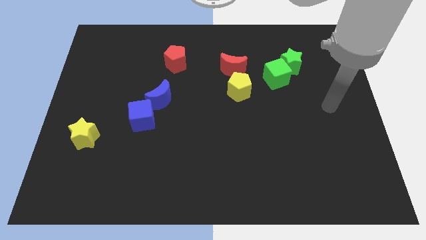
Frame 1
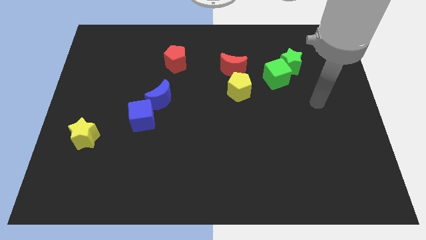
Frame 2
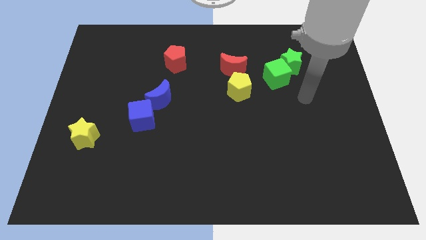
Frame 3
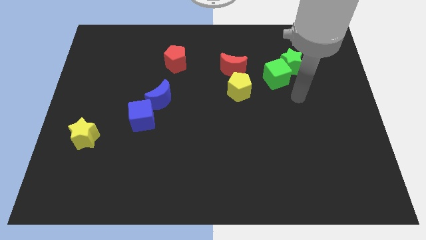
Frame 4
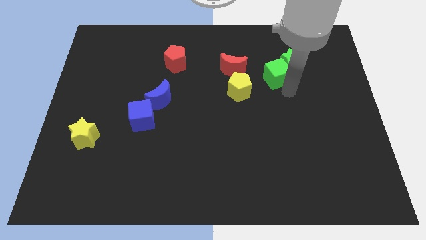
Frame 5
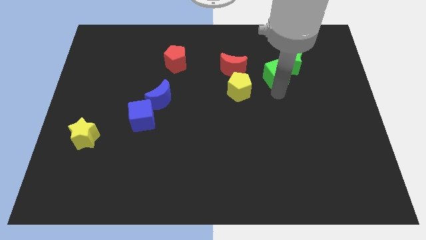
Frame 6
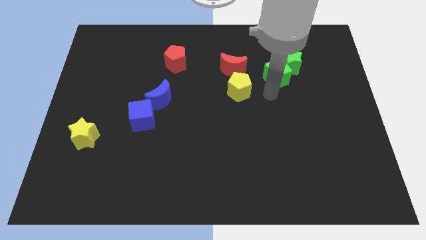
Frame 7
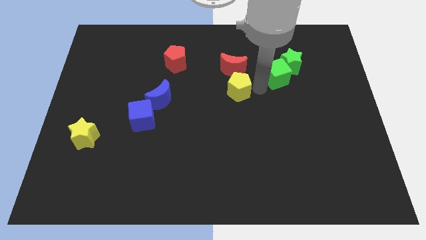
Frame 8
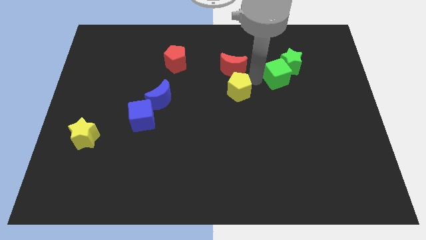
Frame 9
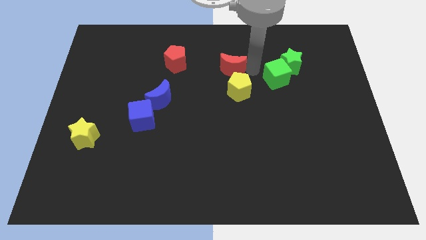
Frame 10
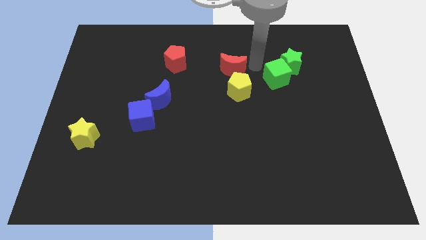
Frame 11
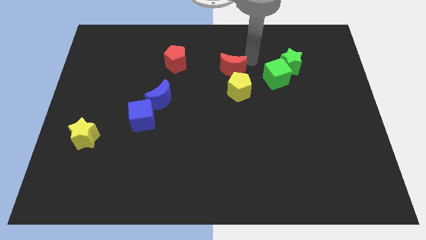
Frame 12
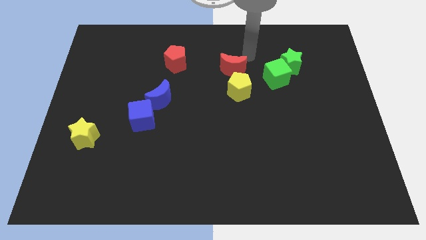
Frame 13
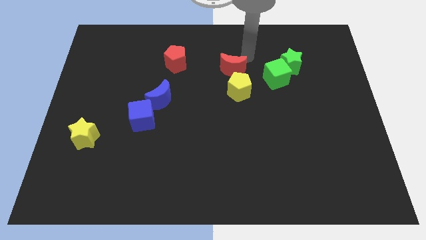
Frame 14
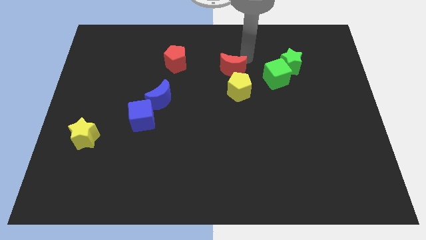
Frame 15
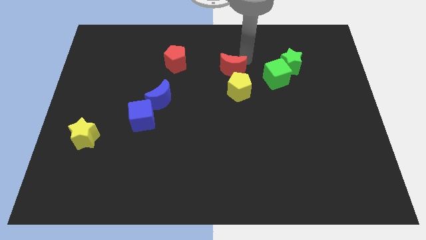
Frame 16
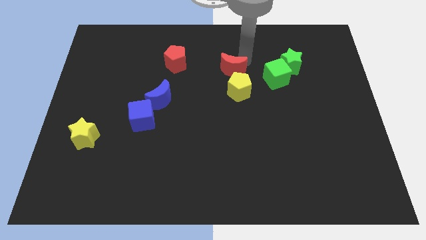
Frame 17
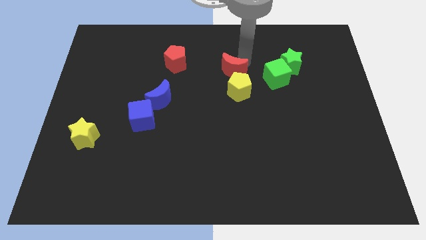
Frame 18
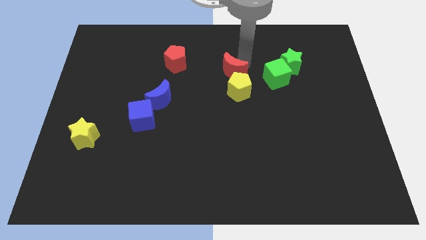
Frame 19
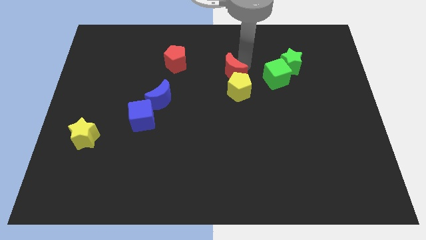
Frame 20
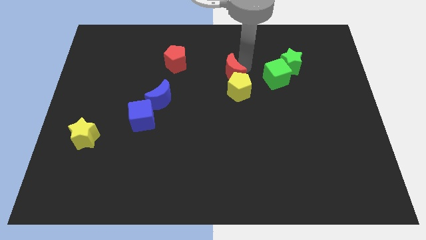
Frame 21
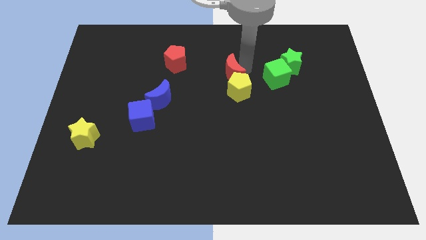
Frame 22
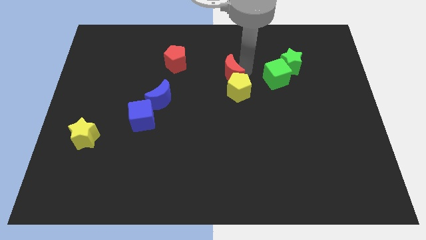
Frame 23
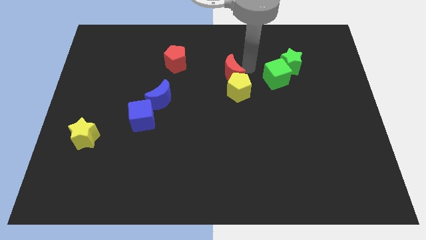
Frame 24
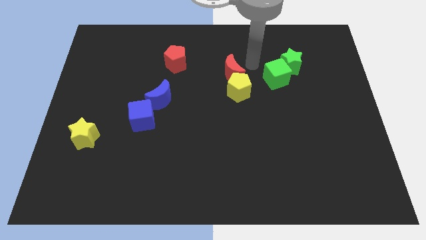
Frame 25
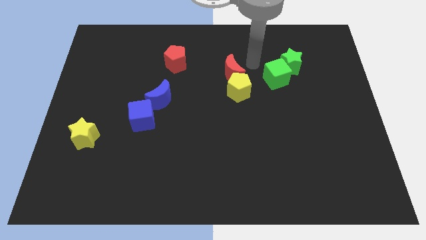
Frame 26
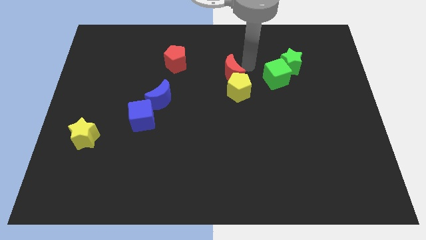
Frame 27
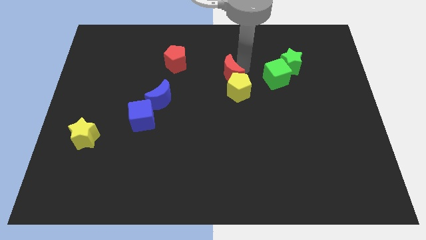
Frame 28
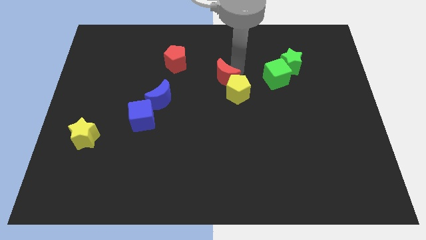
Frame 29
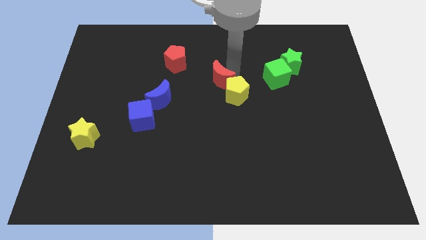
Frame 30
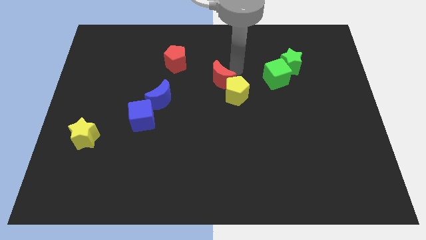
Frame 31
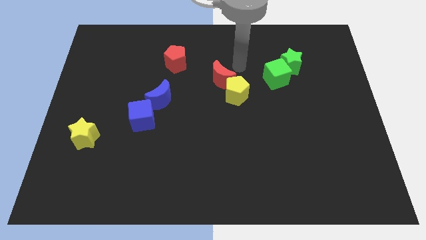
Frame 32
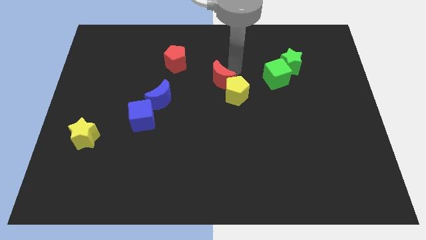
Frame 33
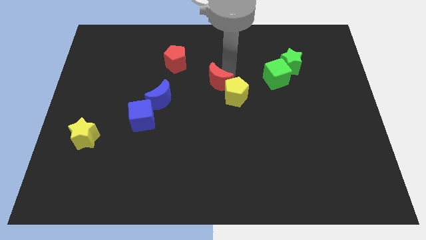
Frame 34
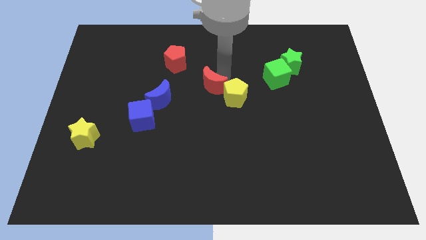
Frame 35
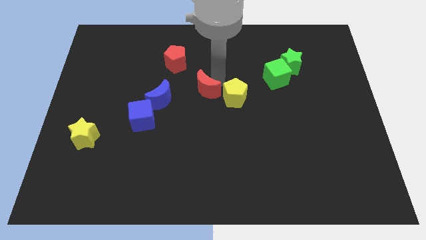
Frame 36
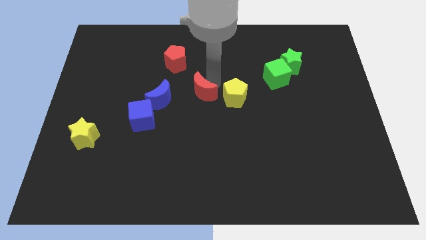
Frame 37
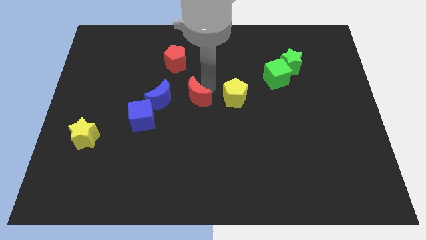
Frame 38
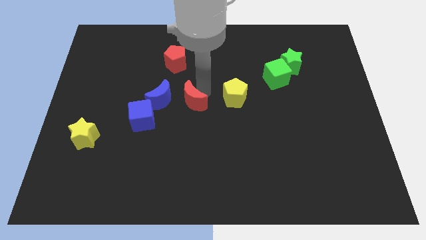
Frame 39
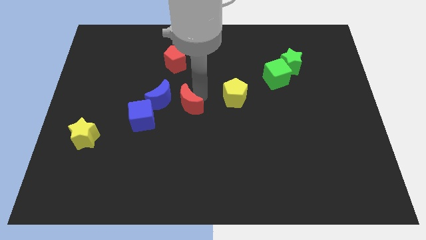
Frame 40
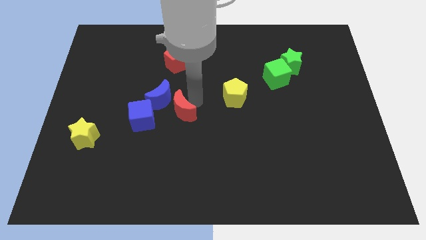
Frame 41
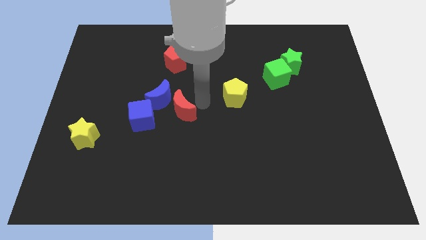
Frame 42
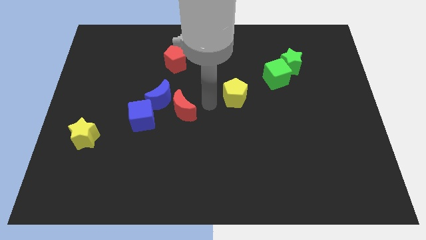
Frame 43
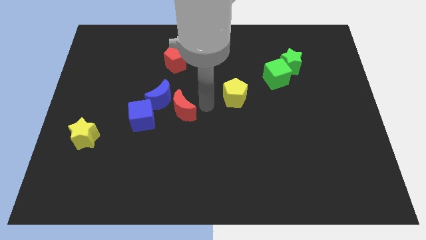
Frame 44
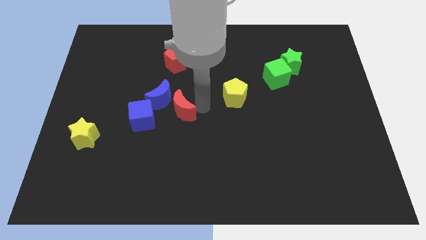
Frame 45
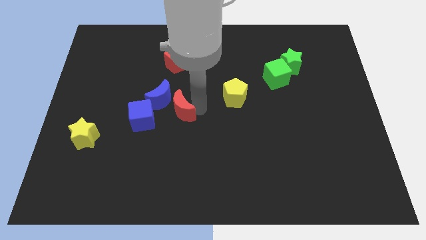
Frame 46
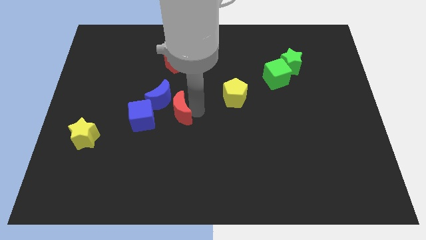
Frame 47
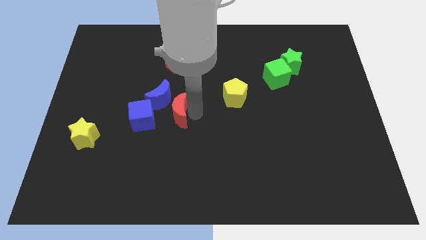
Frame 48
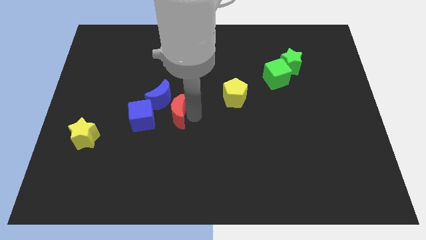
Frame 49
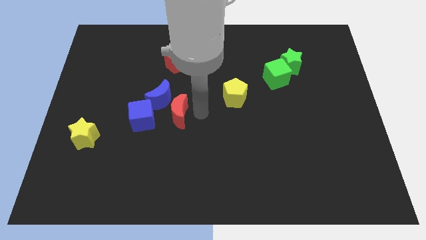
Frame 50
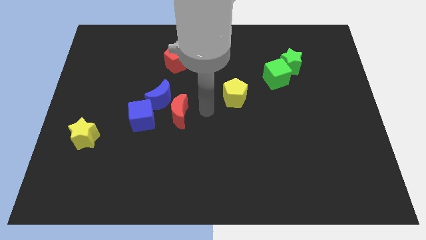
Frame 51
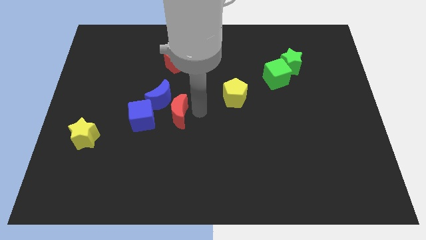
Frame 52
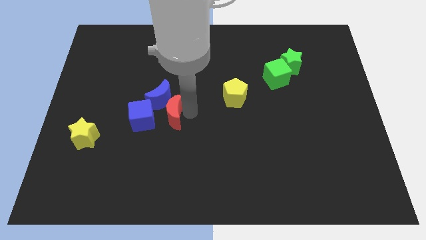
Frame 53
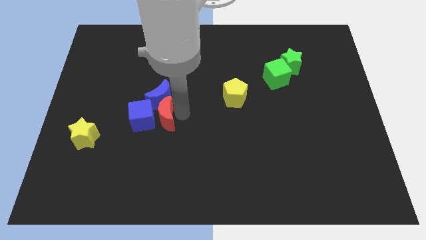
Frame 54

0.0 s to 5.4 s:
slide the red moon towards the blue cube

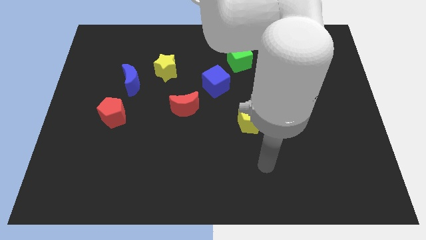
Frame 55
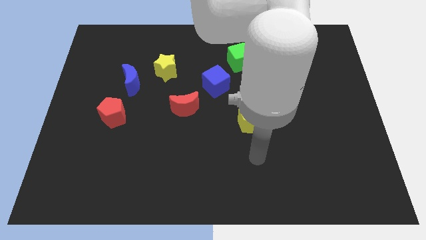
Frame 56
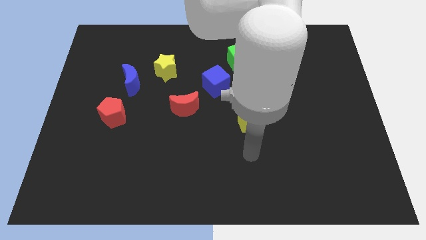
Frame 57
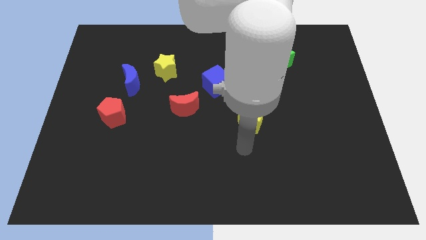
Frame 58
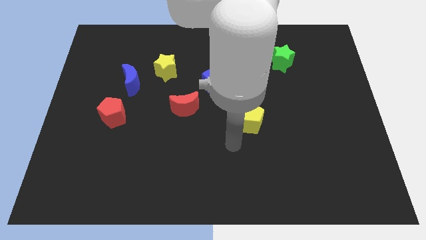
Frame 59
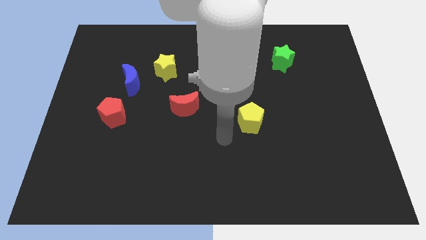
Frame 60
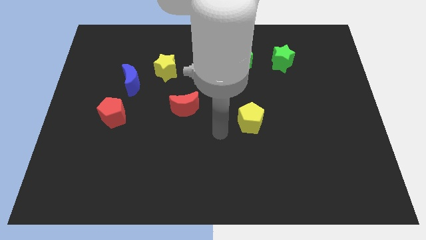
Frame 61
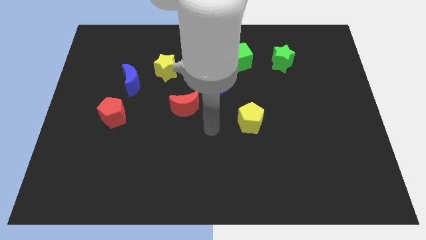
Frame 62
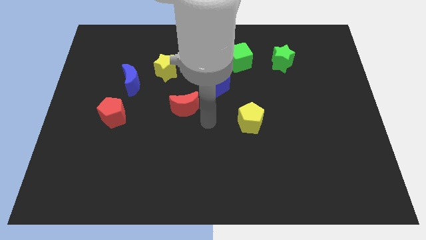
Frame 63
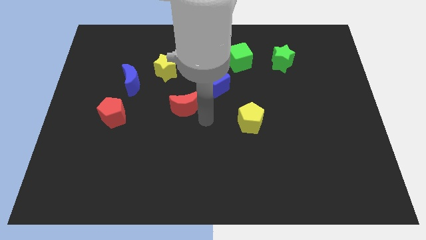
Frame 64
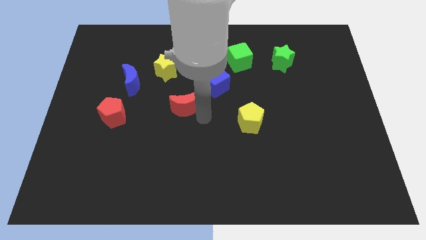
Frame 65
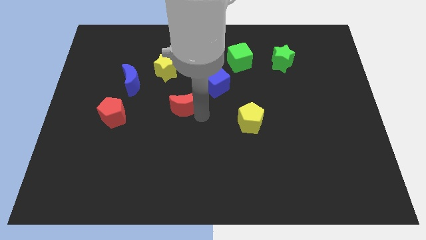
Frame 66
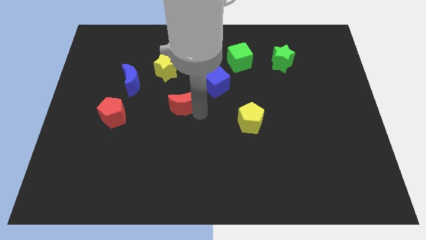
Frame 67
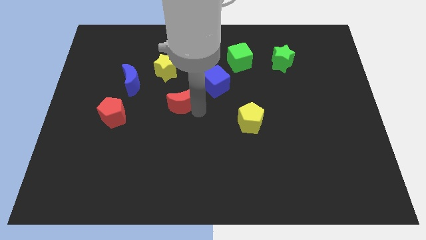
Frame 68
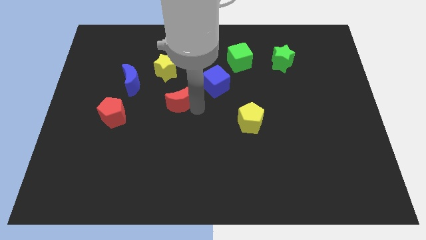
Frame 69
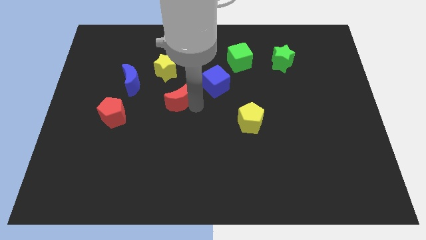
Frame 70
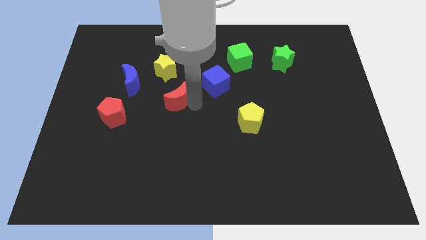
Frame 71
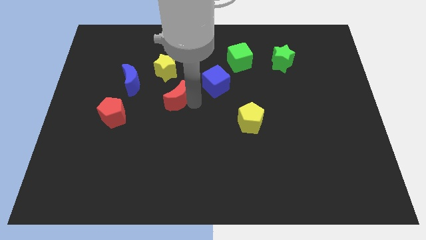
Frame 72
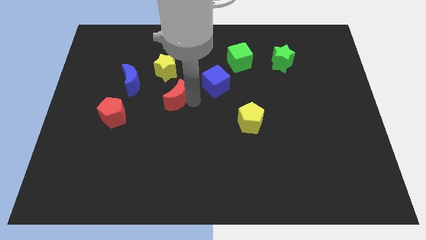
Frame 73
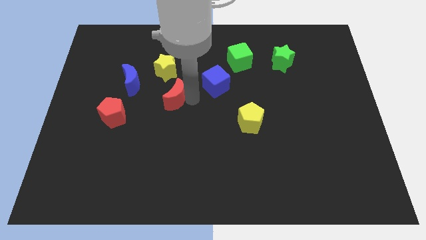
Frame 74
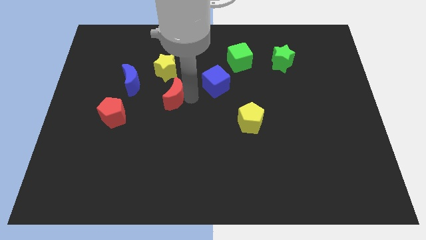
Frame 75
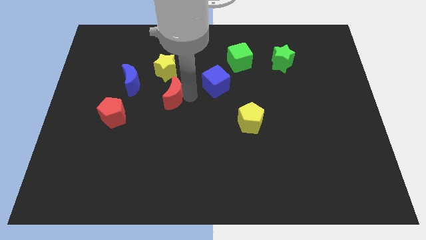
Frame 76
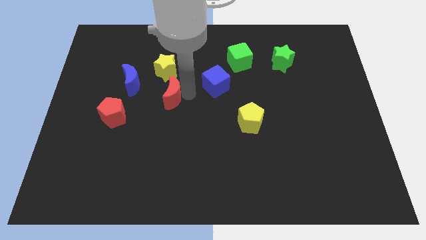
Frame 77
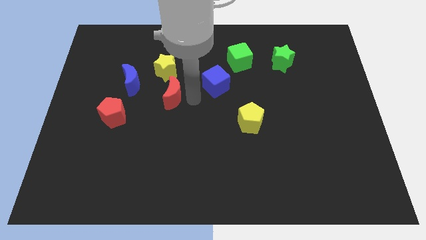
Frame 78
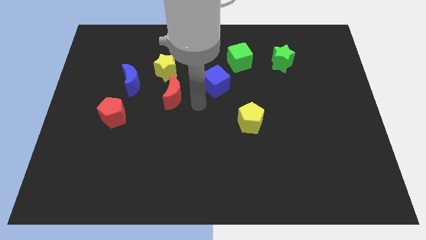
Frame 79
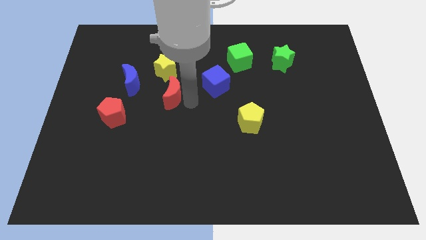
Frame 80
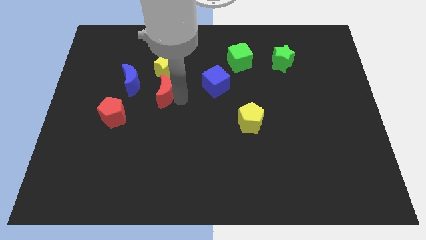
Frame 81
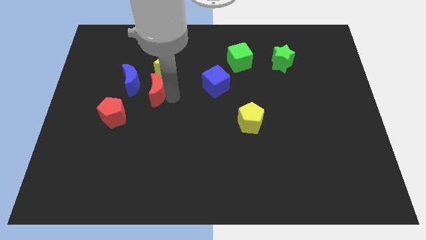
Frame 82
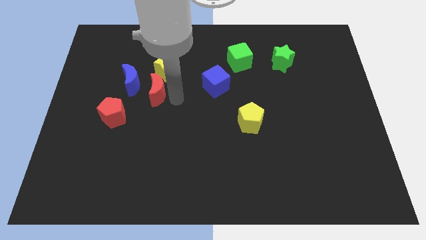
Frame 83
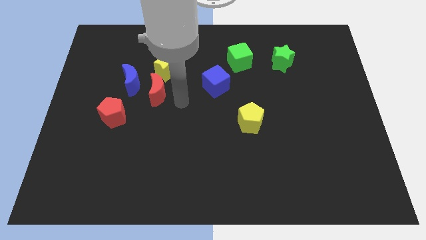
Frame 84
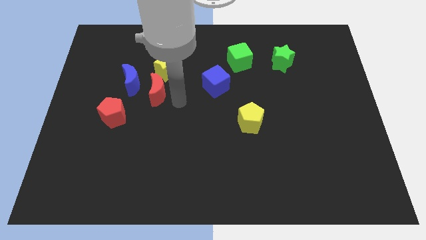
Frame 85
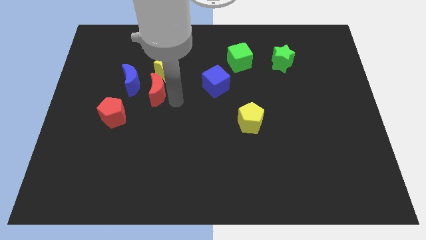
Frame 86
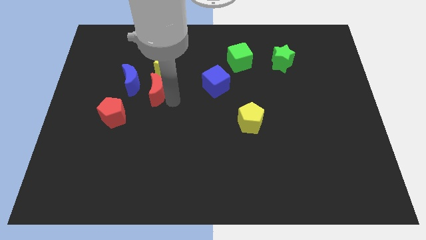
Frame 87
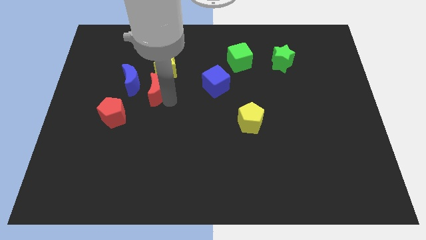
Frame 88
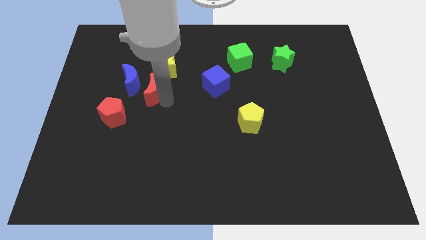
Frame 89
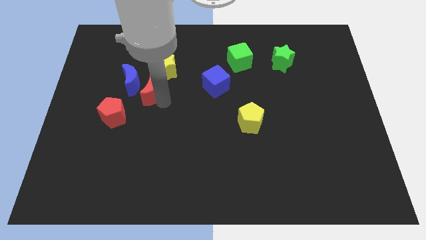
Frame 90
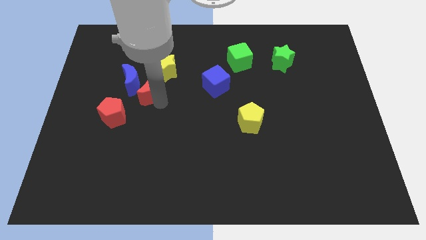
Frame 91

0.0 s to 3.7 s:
move the red moon towards the blue moon
